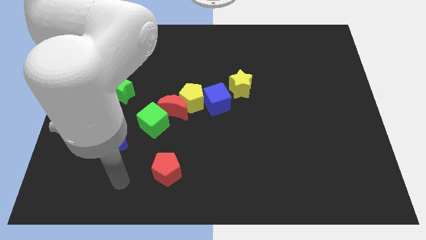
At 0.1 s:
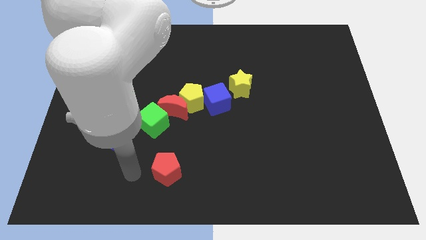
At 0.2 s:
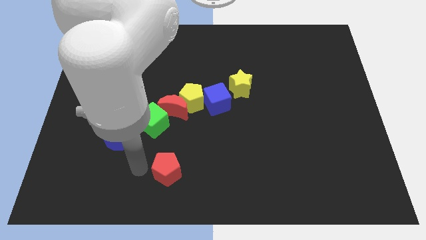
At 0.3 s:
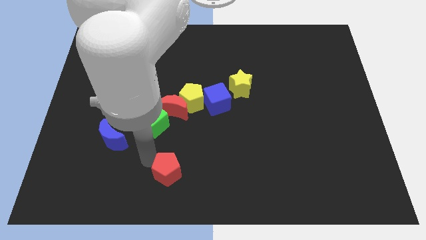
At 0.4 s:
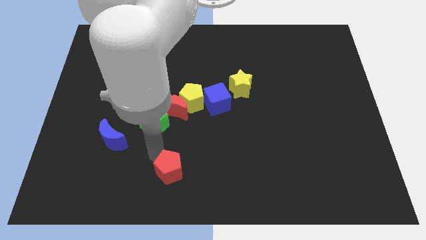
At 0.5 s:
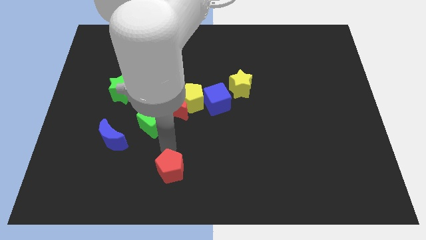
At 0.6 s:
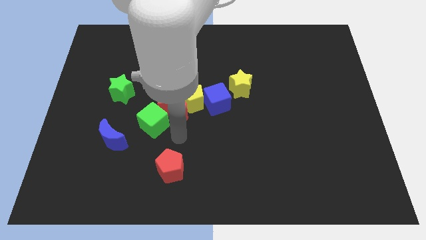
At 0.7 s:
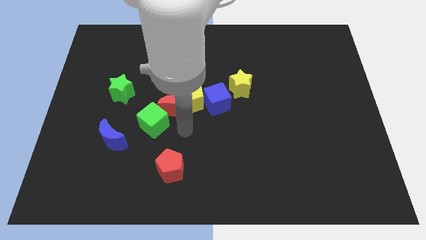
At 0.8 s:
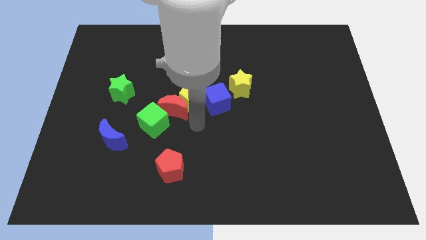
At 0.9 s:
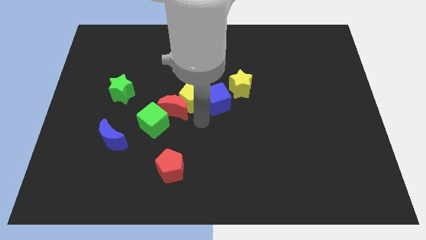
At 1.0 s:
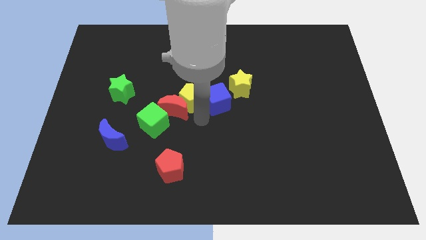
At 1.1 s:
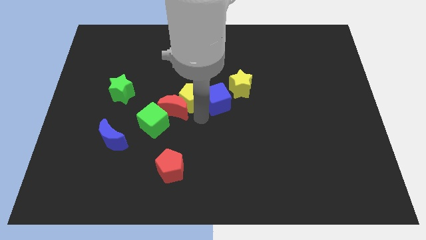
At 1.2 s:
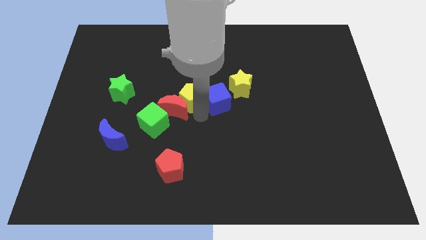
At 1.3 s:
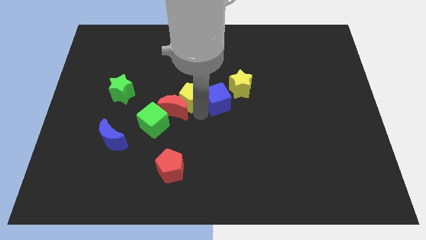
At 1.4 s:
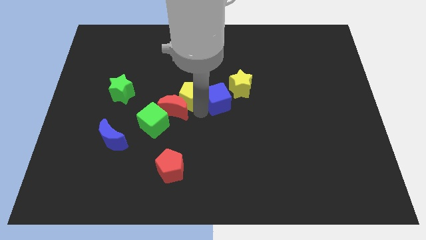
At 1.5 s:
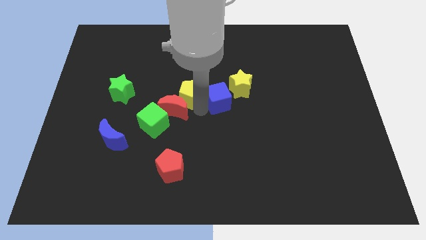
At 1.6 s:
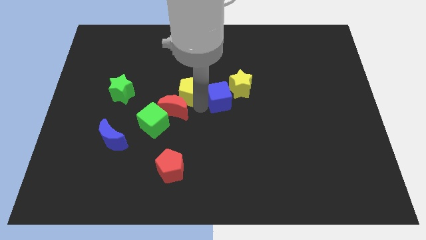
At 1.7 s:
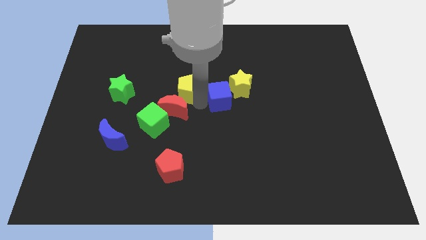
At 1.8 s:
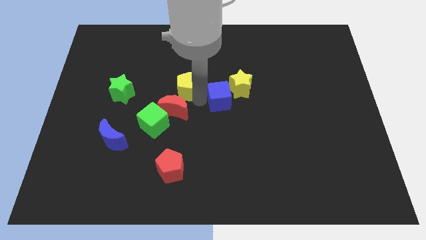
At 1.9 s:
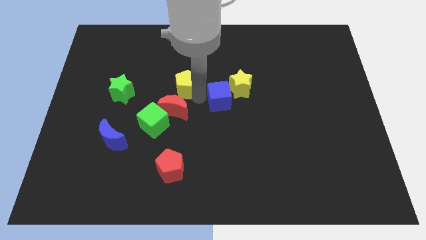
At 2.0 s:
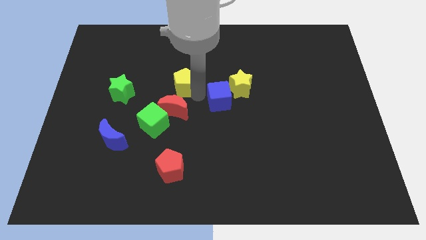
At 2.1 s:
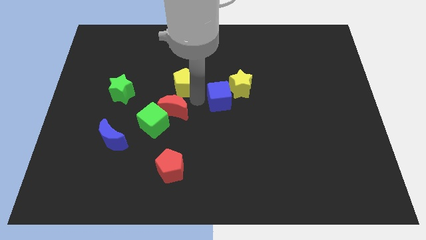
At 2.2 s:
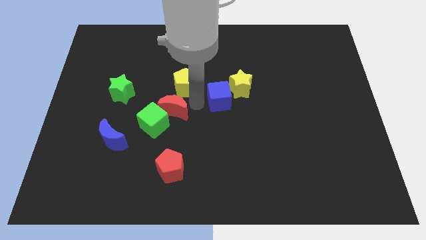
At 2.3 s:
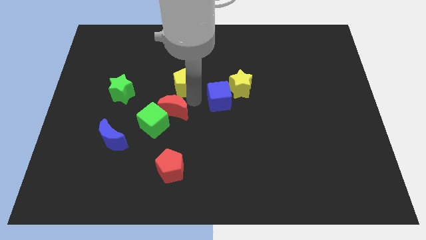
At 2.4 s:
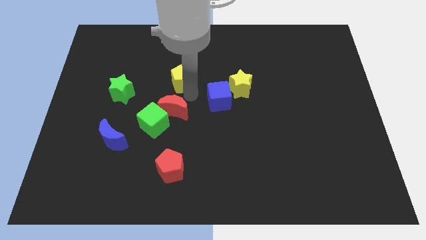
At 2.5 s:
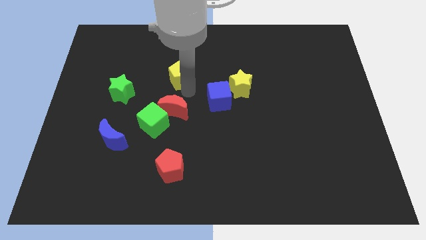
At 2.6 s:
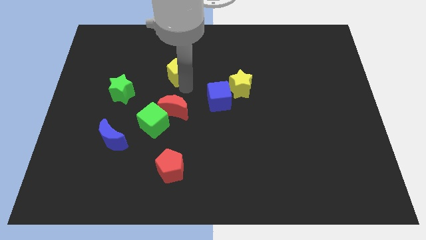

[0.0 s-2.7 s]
pull the yellow pentagon apart from the red moon and blue cube

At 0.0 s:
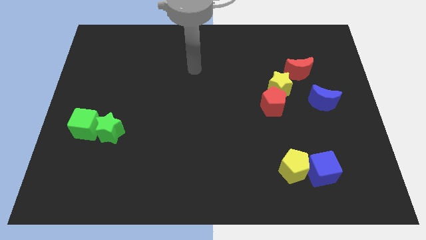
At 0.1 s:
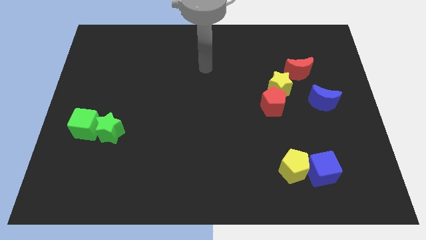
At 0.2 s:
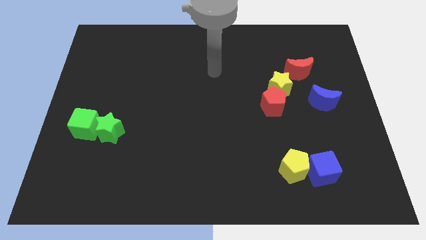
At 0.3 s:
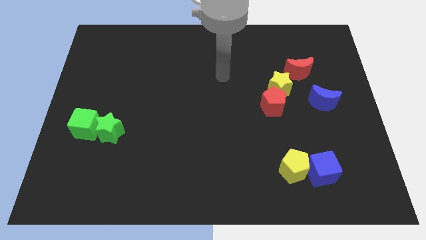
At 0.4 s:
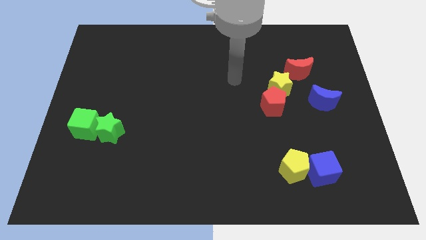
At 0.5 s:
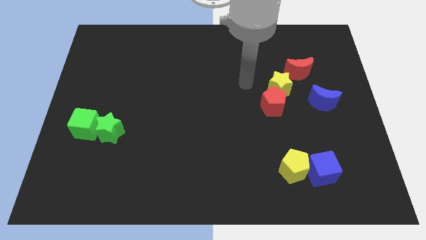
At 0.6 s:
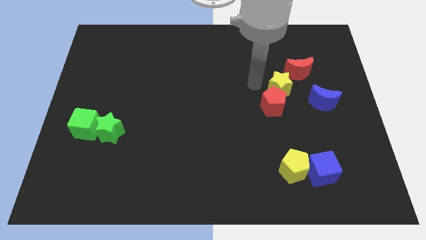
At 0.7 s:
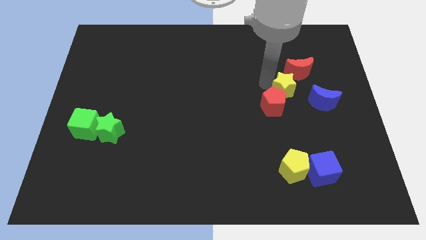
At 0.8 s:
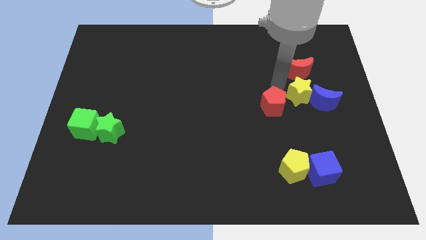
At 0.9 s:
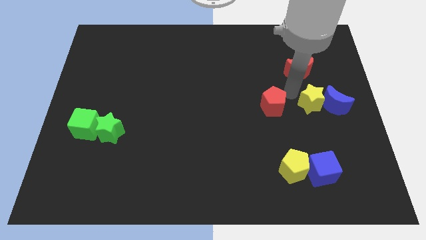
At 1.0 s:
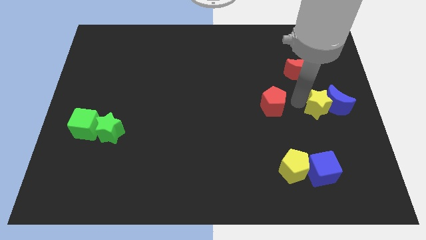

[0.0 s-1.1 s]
move the red pentagon away from the yellow star

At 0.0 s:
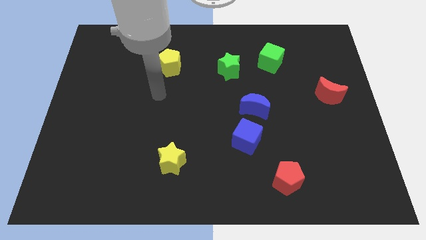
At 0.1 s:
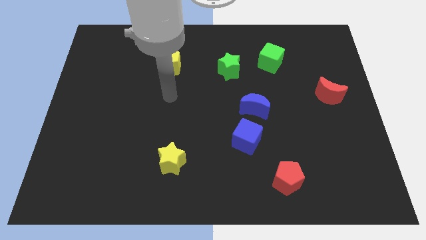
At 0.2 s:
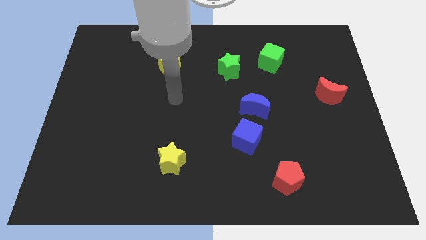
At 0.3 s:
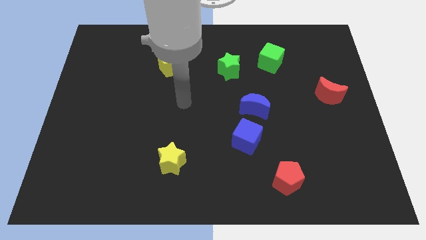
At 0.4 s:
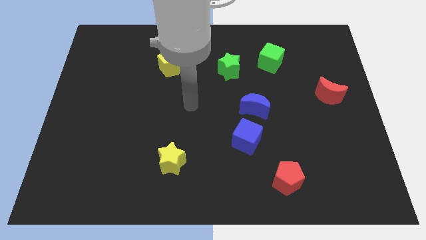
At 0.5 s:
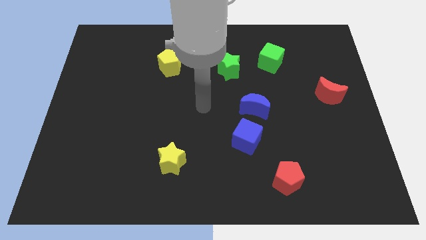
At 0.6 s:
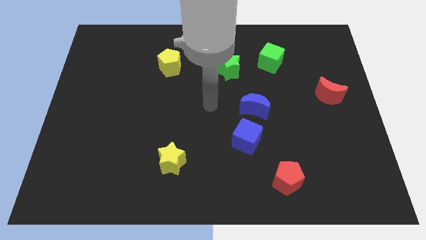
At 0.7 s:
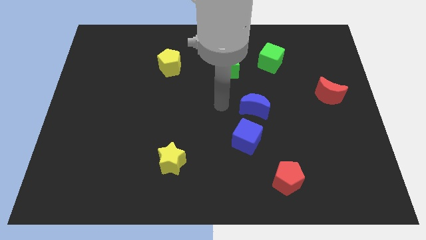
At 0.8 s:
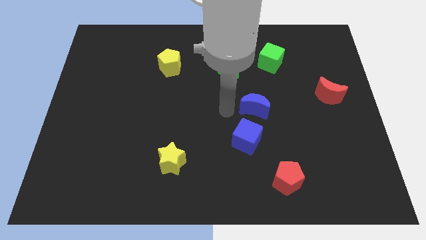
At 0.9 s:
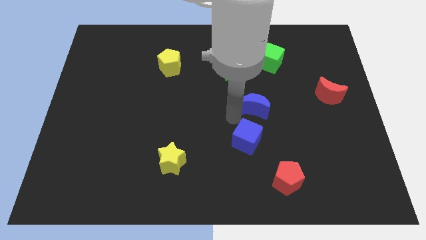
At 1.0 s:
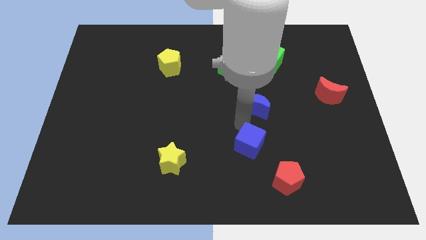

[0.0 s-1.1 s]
pull the blue moon apart from the blue cube

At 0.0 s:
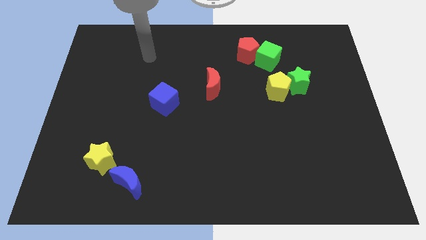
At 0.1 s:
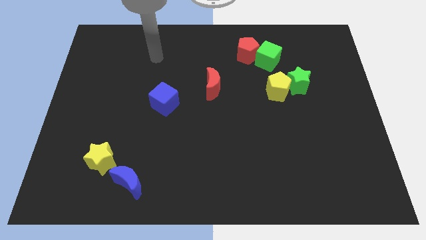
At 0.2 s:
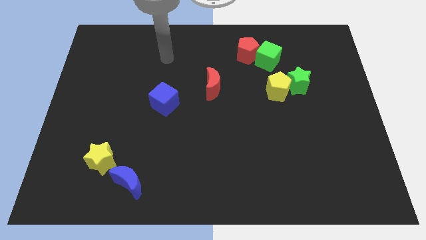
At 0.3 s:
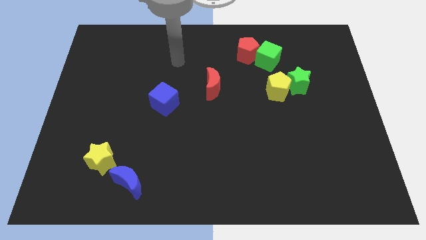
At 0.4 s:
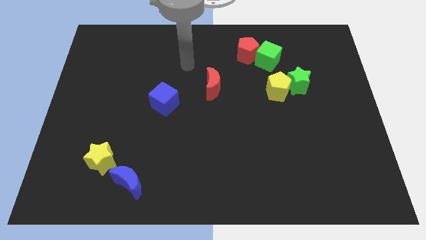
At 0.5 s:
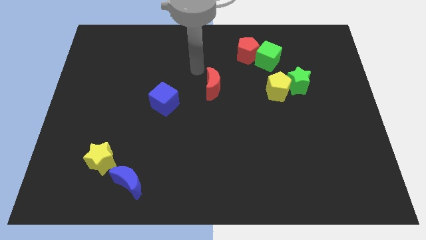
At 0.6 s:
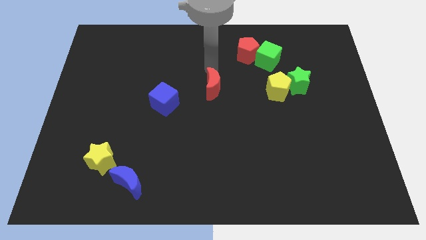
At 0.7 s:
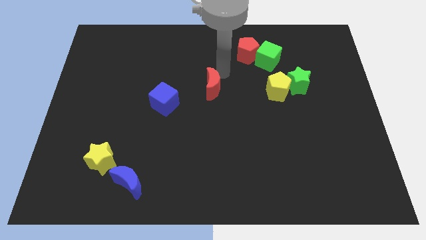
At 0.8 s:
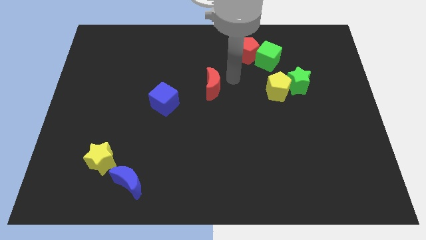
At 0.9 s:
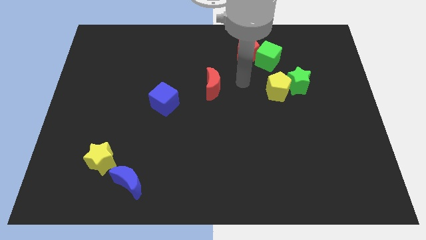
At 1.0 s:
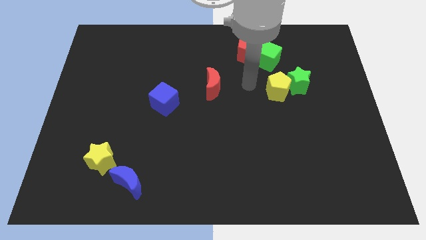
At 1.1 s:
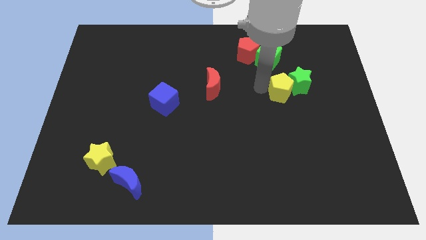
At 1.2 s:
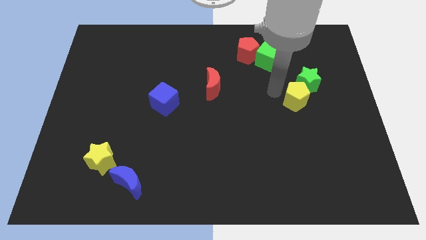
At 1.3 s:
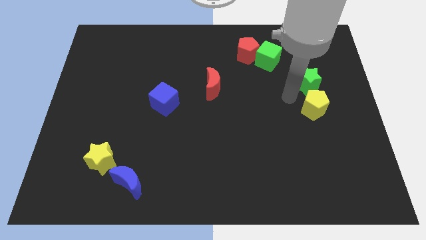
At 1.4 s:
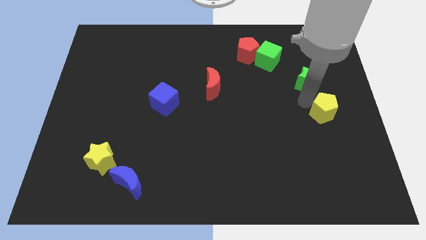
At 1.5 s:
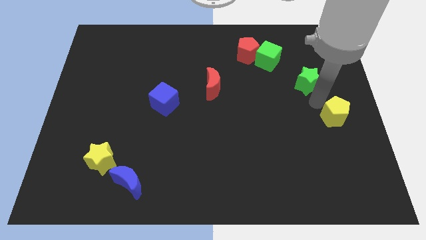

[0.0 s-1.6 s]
move the green star away from the yellow pentagon

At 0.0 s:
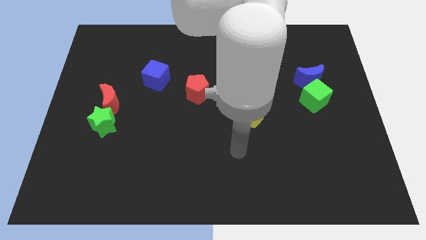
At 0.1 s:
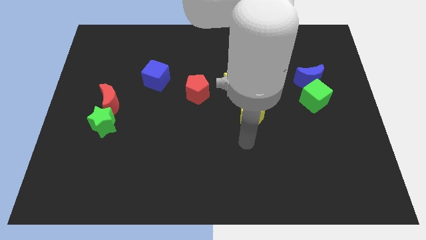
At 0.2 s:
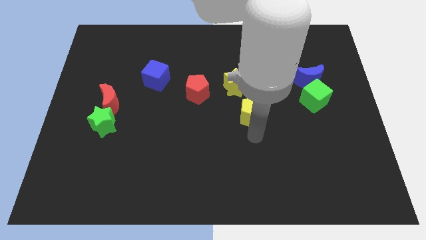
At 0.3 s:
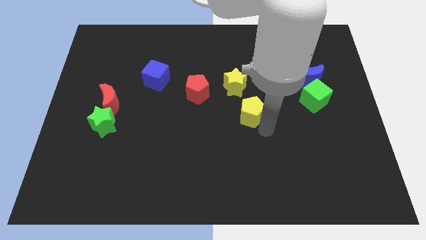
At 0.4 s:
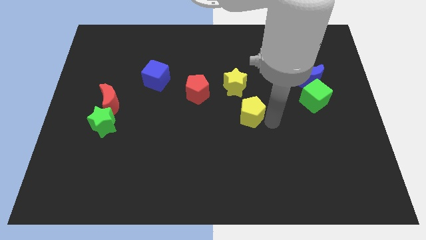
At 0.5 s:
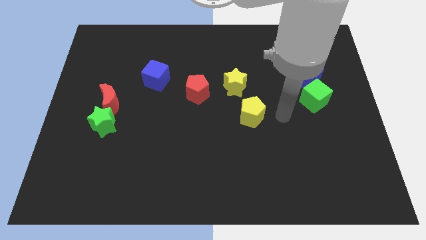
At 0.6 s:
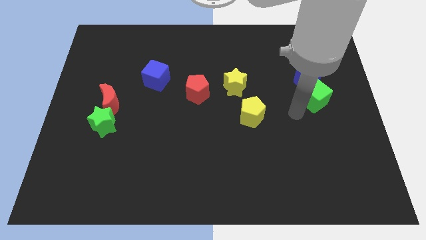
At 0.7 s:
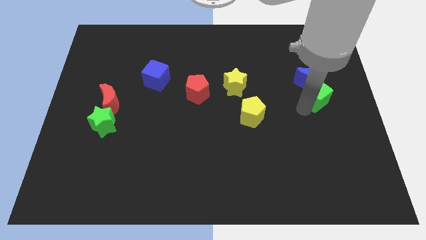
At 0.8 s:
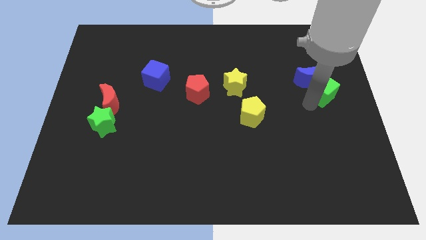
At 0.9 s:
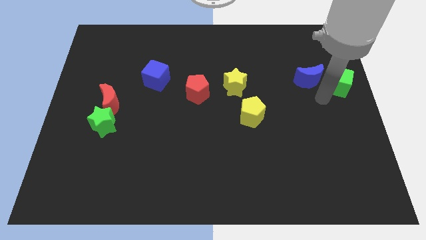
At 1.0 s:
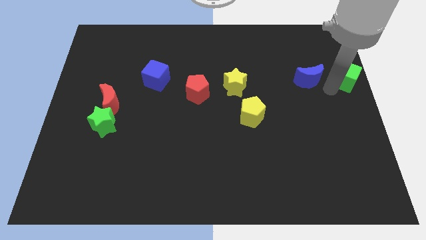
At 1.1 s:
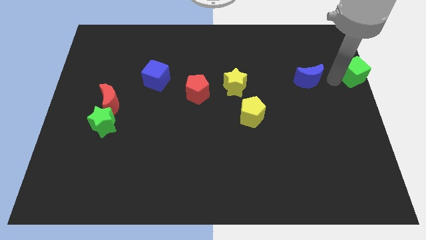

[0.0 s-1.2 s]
pull the blue moon apart from the green cube

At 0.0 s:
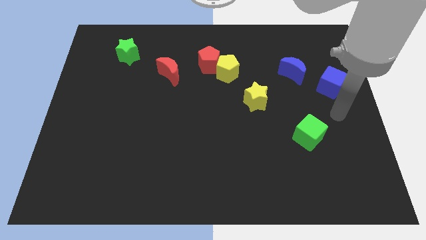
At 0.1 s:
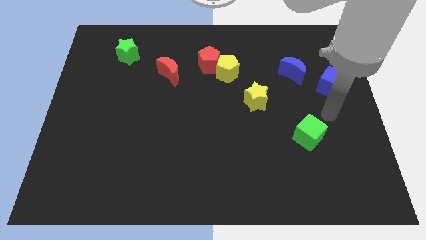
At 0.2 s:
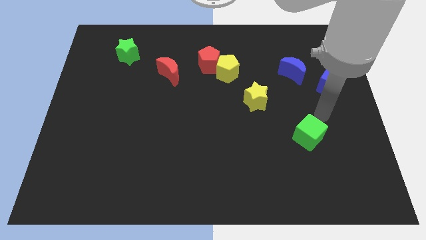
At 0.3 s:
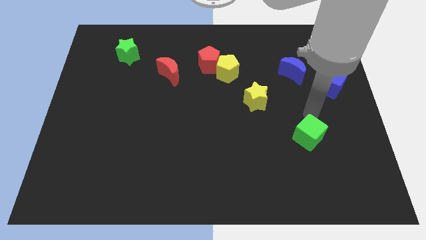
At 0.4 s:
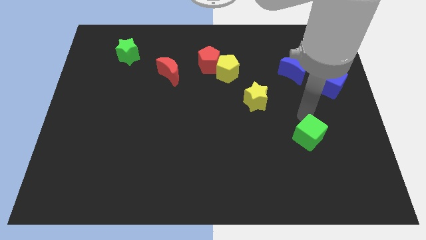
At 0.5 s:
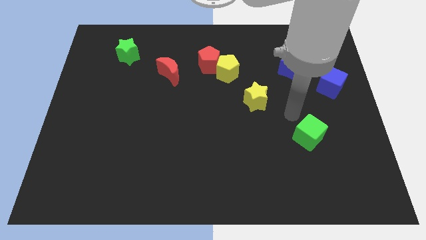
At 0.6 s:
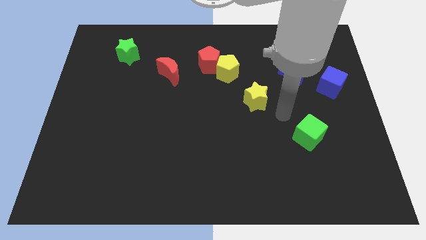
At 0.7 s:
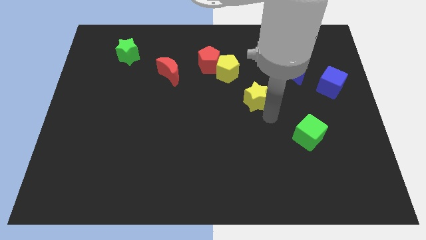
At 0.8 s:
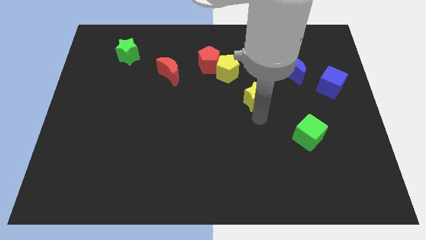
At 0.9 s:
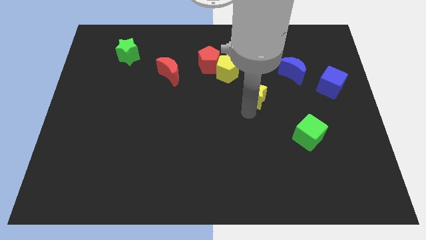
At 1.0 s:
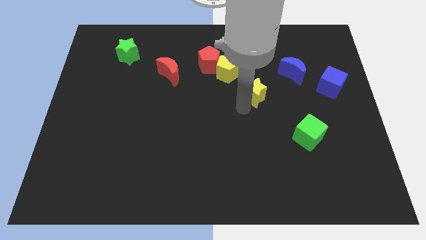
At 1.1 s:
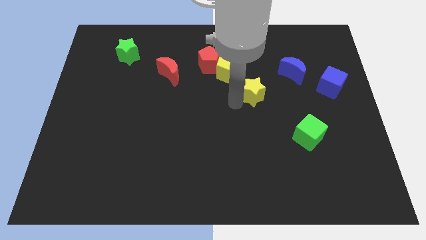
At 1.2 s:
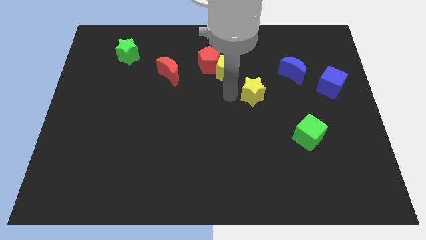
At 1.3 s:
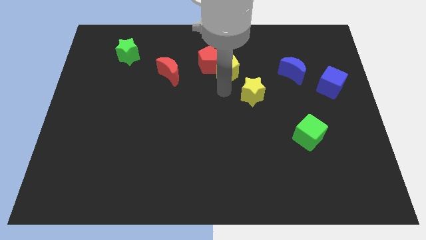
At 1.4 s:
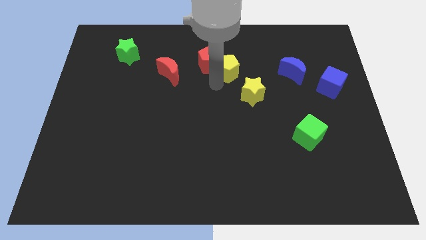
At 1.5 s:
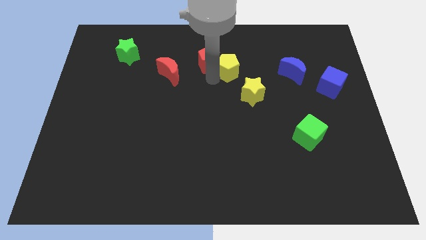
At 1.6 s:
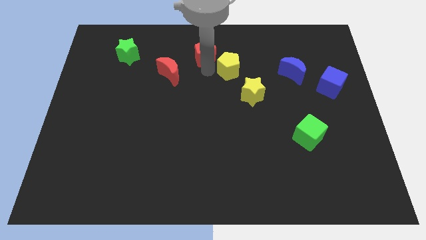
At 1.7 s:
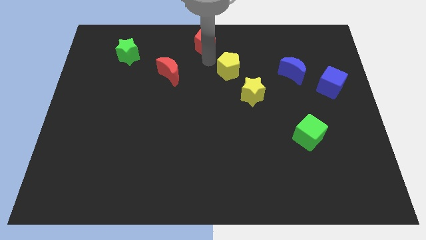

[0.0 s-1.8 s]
pull the yellow pentagon apart from the red pentagon

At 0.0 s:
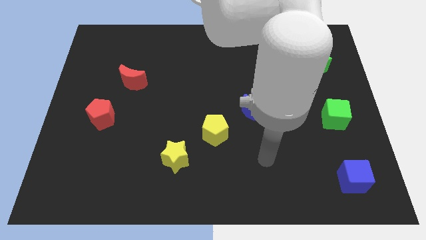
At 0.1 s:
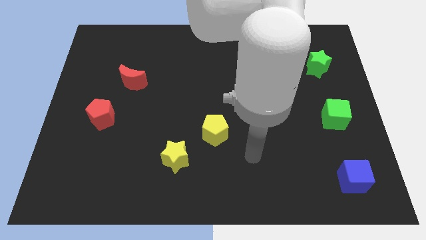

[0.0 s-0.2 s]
move the yellow star away from the yellow pentagon
